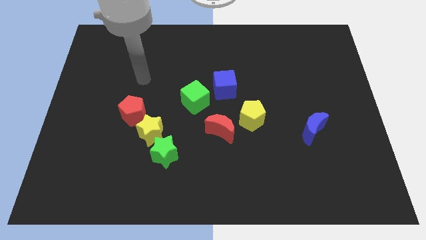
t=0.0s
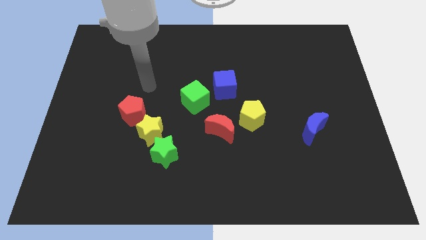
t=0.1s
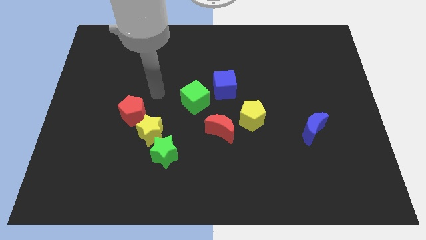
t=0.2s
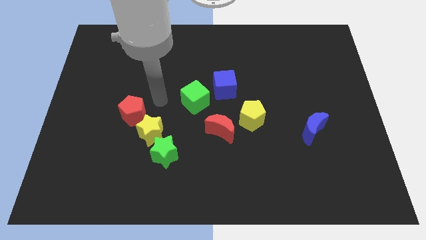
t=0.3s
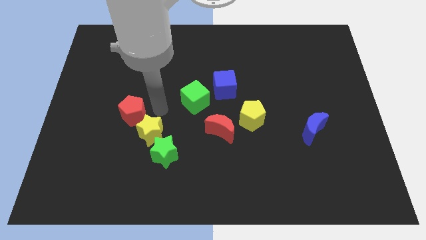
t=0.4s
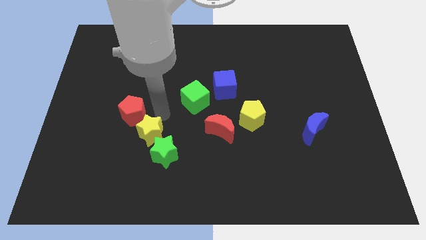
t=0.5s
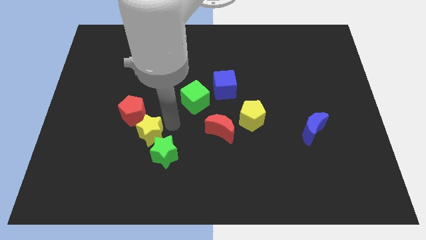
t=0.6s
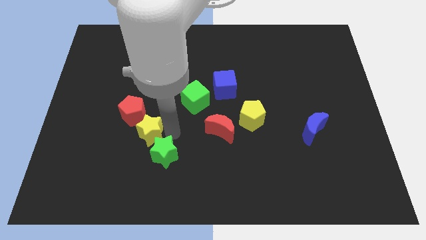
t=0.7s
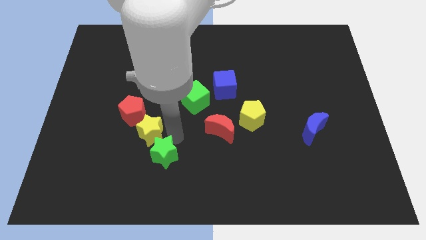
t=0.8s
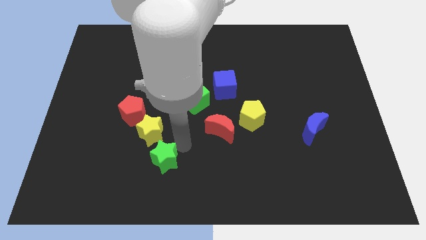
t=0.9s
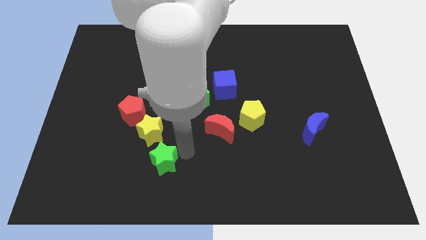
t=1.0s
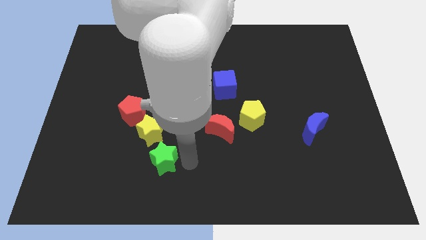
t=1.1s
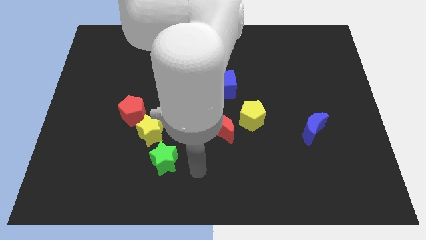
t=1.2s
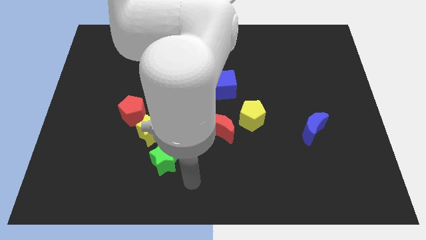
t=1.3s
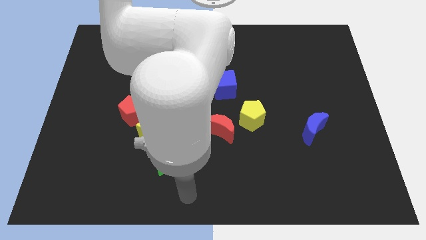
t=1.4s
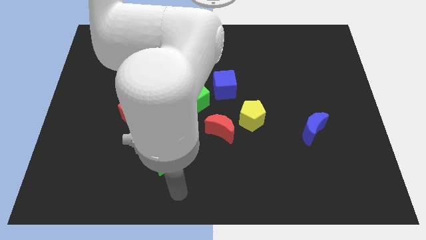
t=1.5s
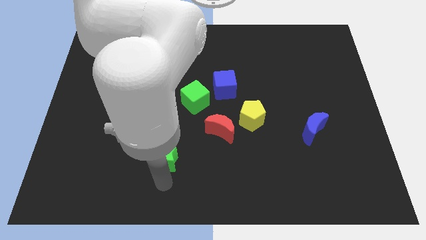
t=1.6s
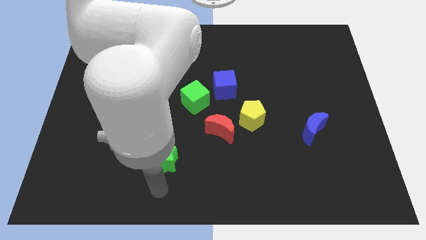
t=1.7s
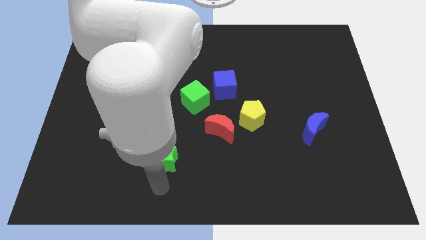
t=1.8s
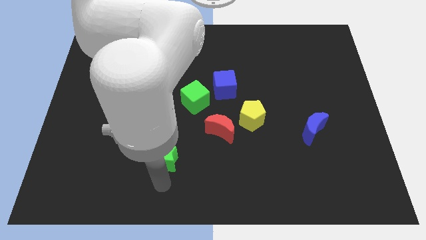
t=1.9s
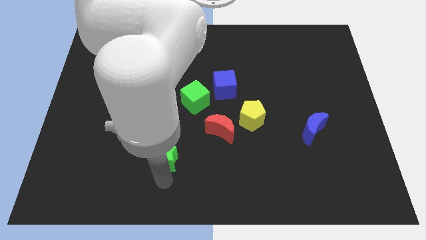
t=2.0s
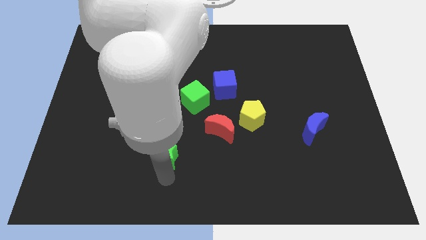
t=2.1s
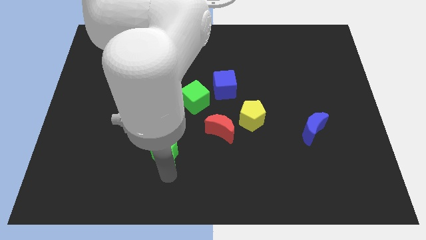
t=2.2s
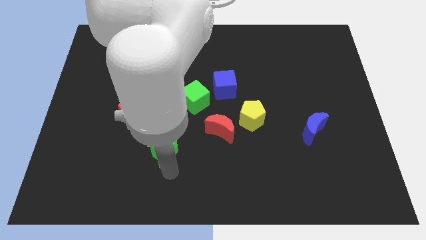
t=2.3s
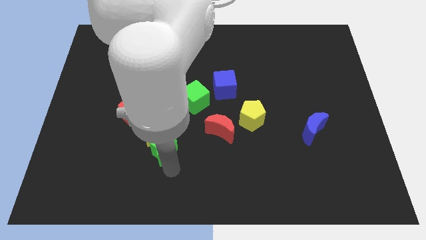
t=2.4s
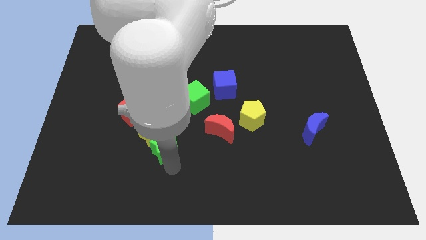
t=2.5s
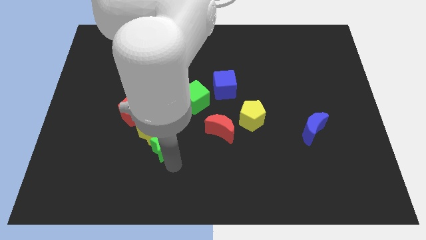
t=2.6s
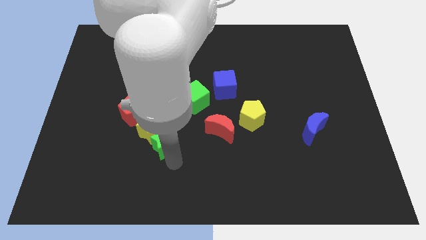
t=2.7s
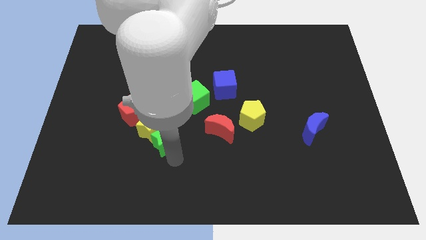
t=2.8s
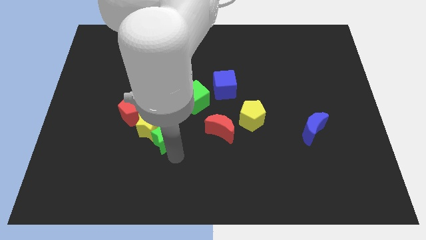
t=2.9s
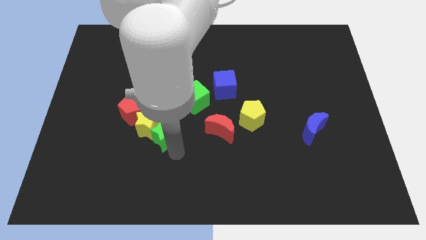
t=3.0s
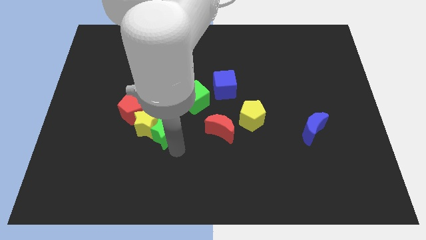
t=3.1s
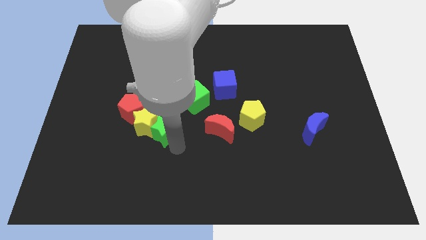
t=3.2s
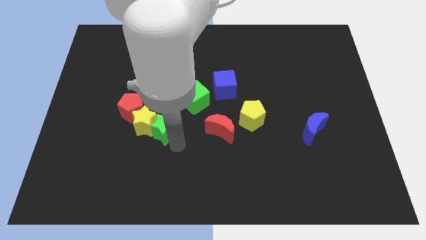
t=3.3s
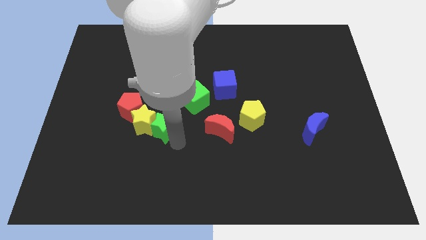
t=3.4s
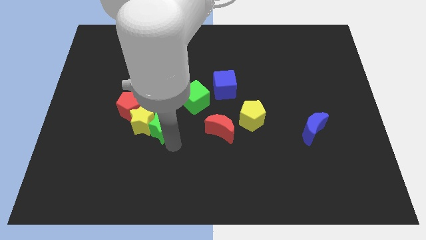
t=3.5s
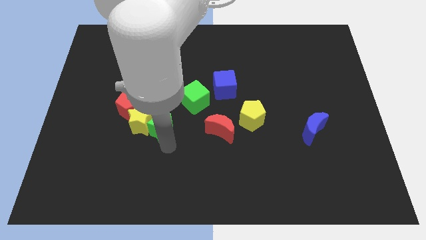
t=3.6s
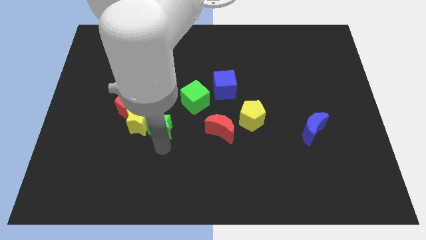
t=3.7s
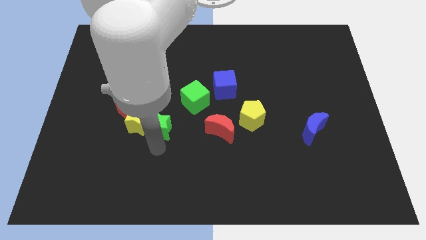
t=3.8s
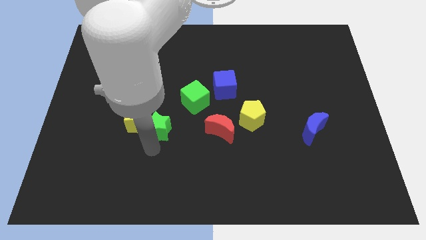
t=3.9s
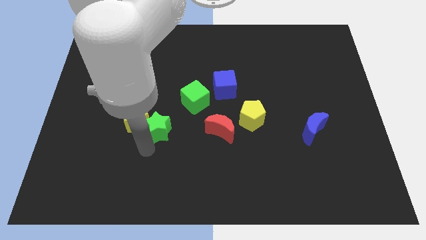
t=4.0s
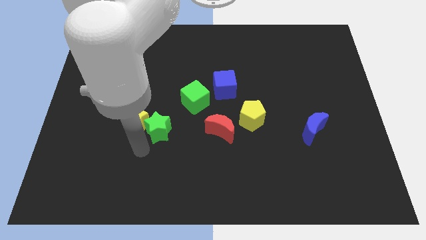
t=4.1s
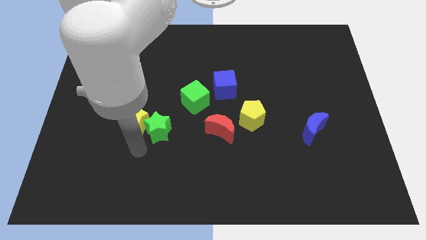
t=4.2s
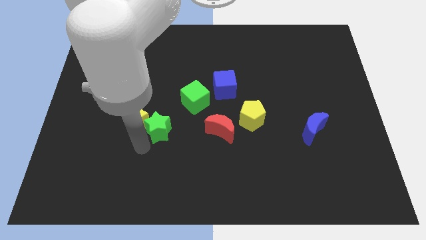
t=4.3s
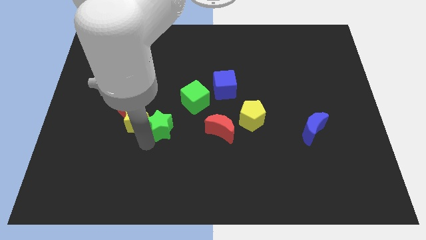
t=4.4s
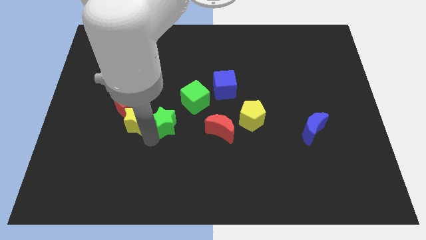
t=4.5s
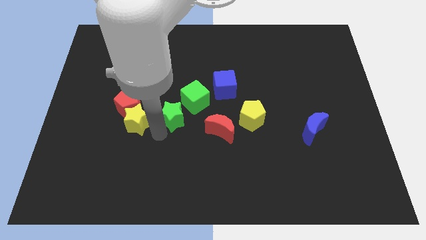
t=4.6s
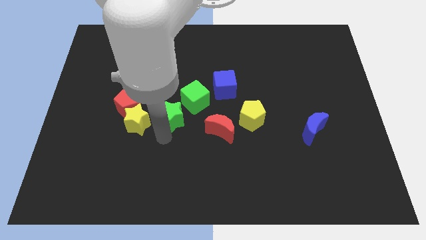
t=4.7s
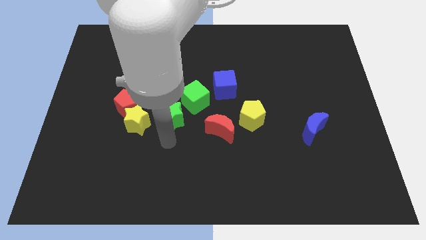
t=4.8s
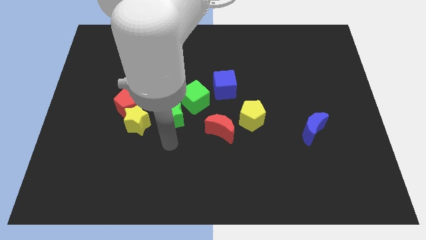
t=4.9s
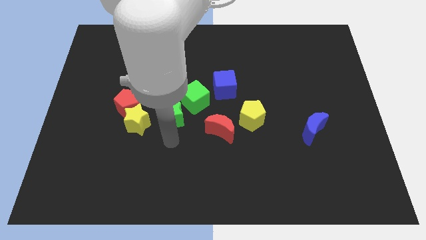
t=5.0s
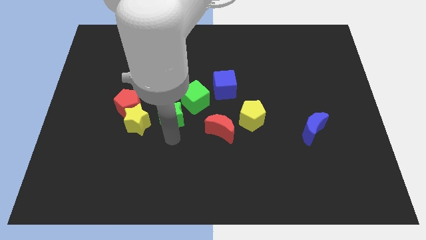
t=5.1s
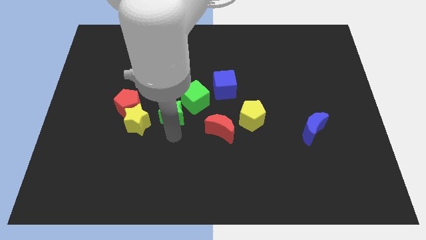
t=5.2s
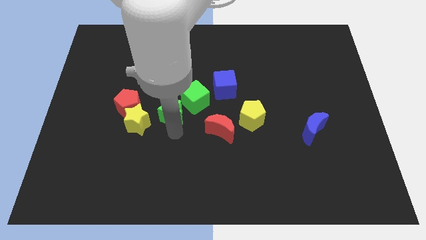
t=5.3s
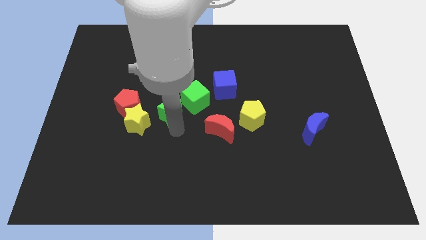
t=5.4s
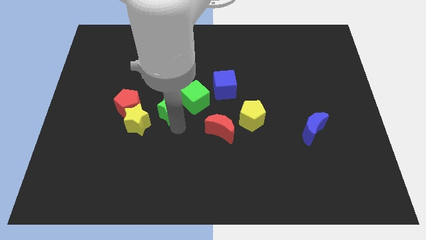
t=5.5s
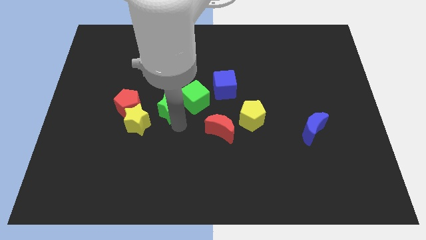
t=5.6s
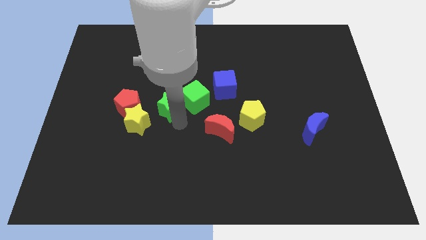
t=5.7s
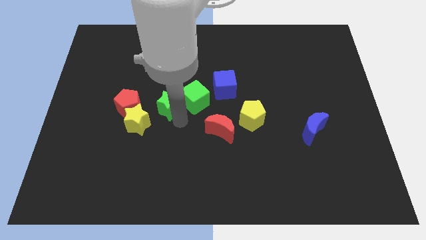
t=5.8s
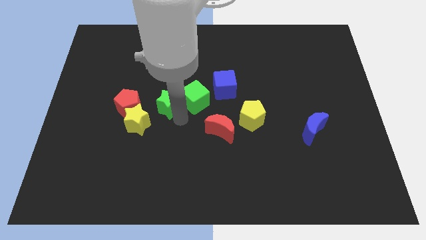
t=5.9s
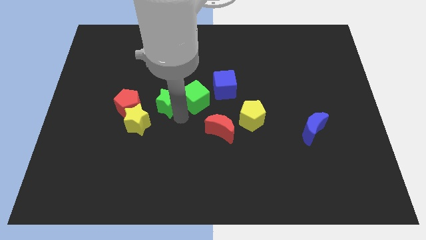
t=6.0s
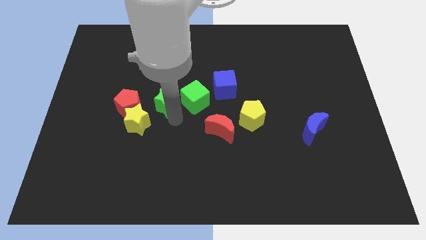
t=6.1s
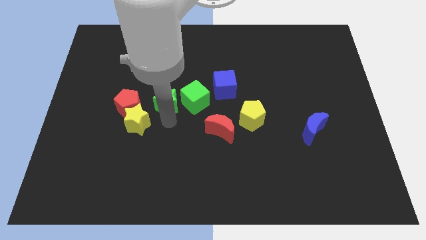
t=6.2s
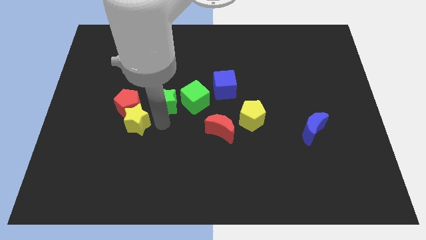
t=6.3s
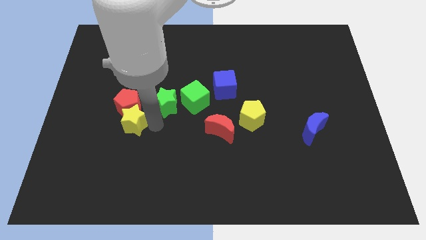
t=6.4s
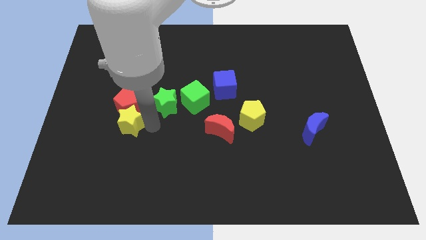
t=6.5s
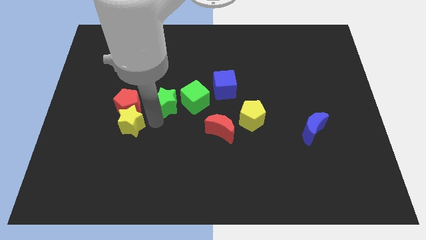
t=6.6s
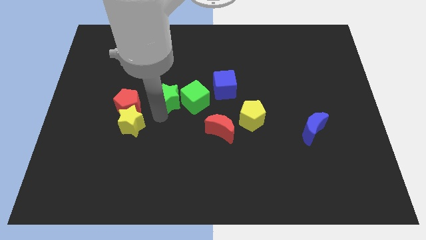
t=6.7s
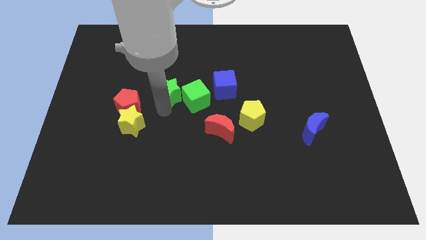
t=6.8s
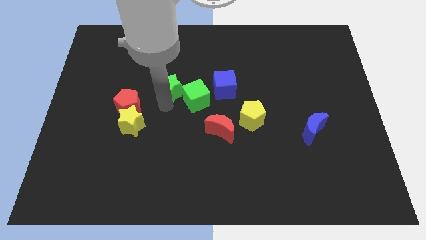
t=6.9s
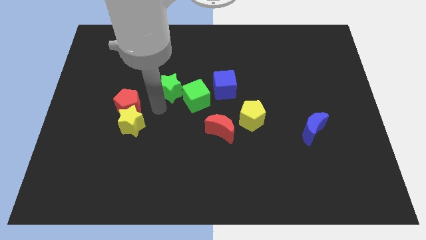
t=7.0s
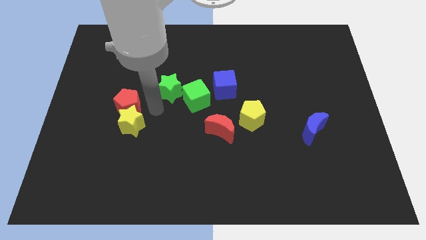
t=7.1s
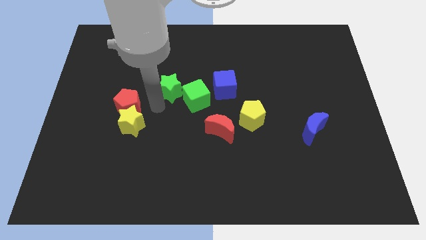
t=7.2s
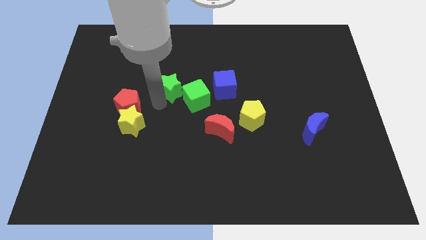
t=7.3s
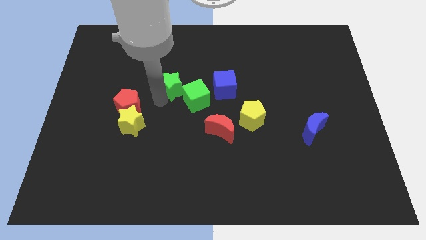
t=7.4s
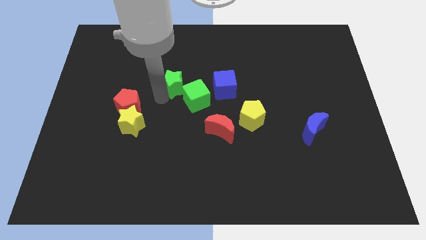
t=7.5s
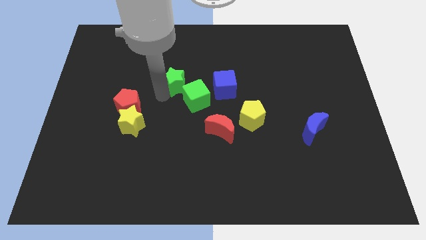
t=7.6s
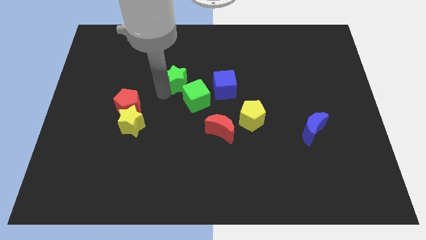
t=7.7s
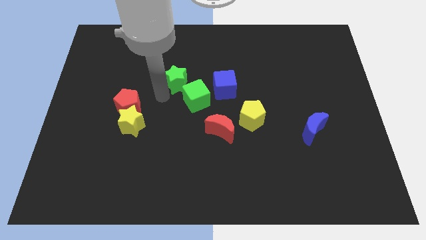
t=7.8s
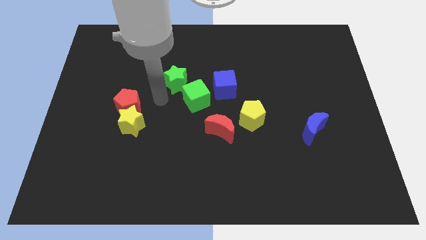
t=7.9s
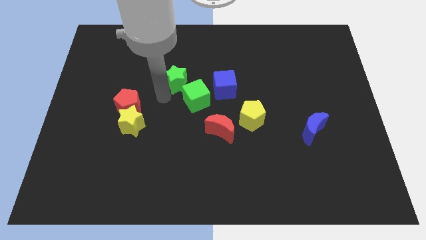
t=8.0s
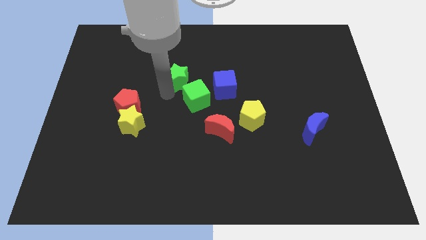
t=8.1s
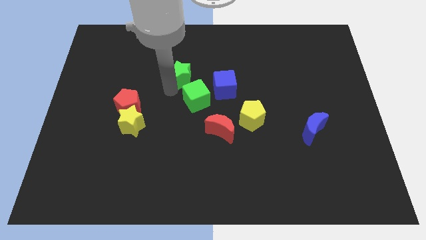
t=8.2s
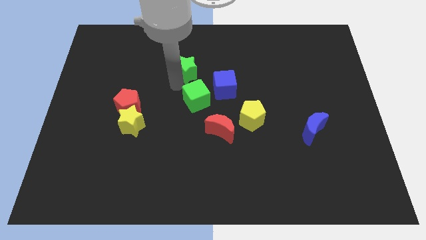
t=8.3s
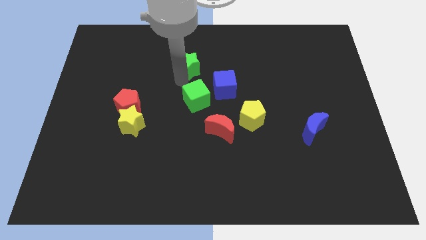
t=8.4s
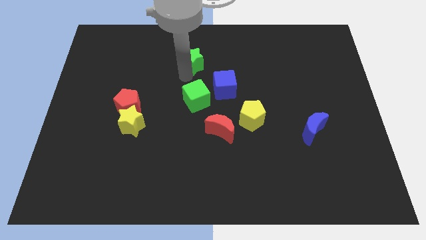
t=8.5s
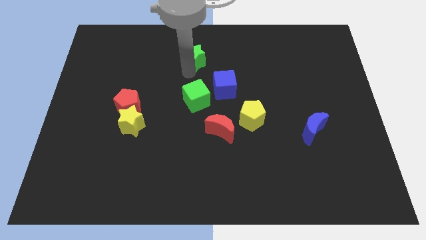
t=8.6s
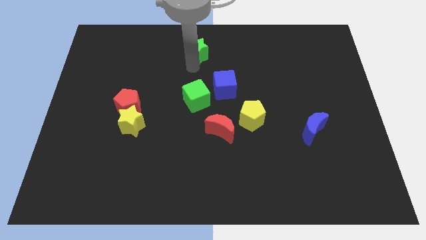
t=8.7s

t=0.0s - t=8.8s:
move the green star to the top
